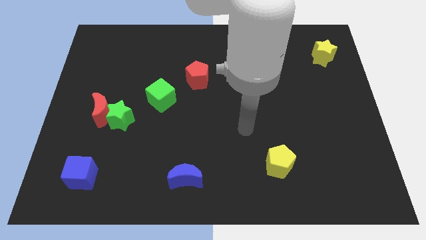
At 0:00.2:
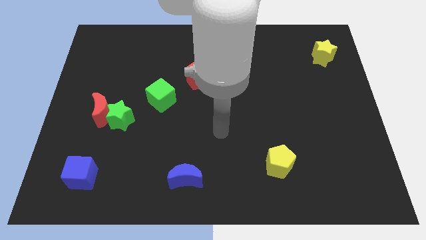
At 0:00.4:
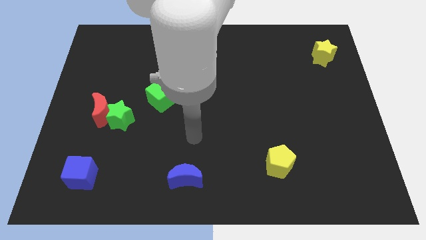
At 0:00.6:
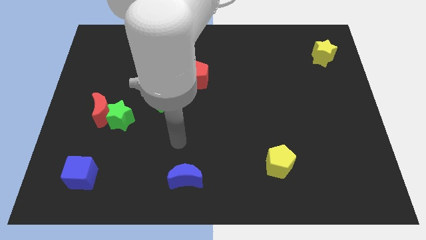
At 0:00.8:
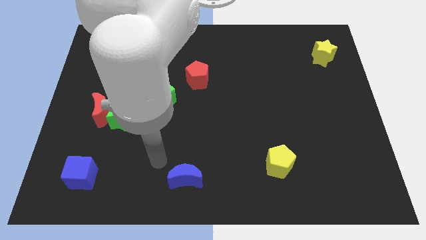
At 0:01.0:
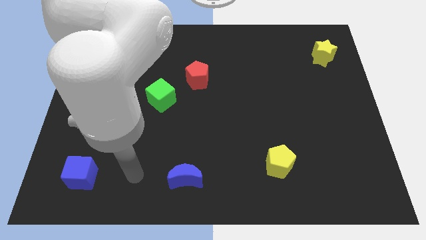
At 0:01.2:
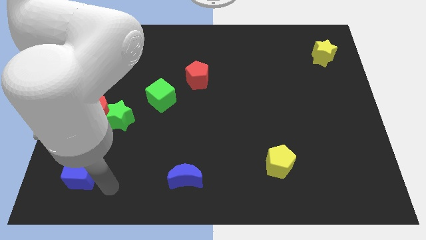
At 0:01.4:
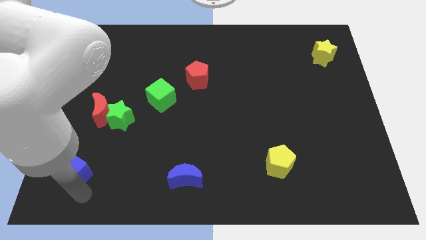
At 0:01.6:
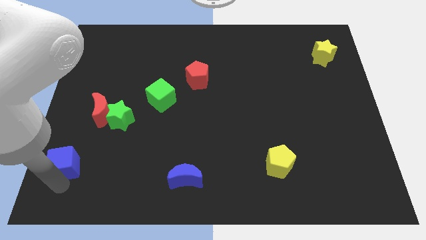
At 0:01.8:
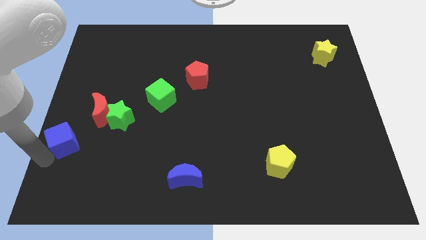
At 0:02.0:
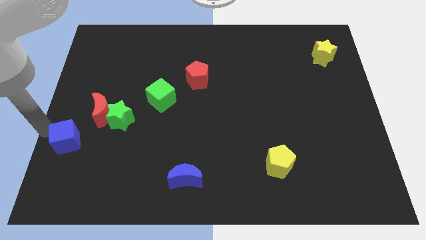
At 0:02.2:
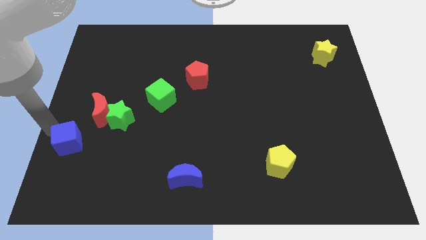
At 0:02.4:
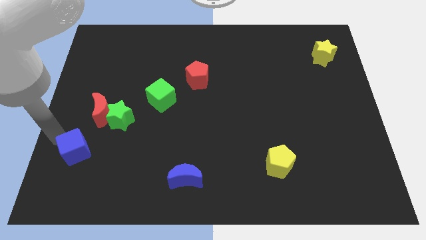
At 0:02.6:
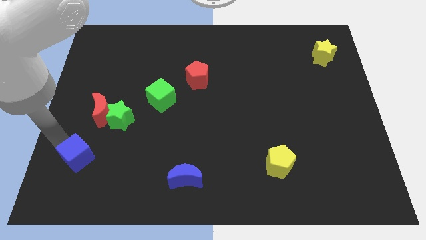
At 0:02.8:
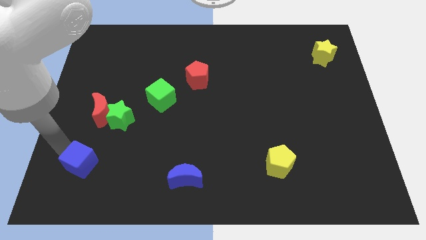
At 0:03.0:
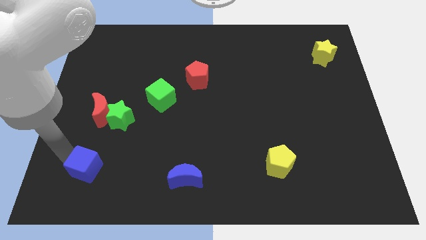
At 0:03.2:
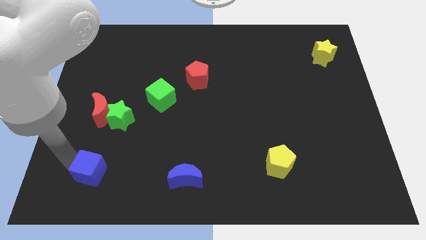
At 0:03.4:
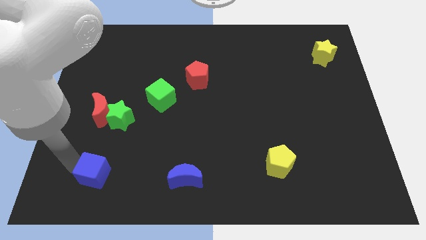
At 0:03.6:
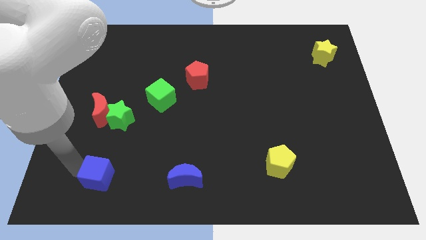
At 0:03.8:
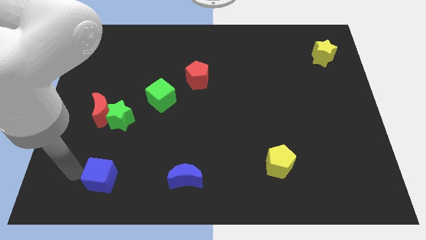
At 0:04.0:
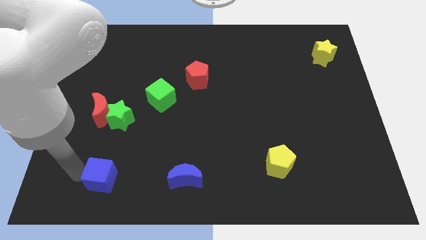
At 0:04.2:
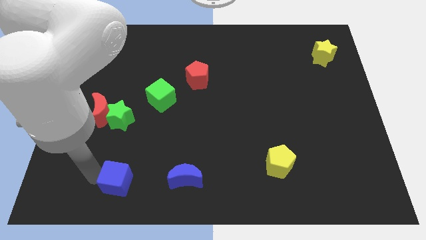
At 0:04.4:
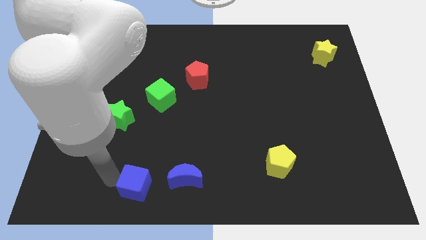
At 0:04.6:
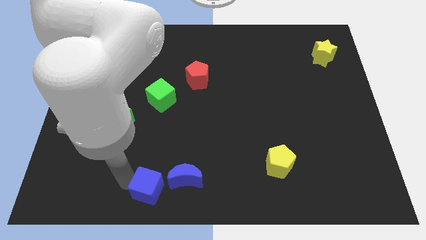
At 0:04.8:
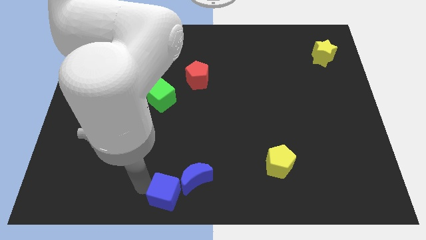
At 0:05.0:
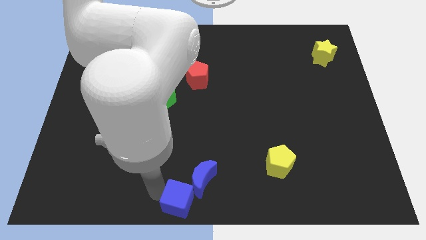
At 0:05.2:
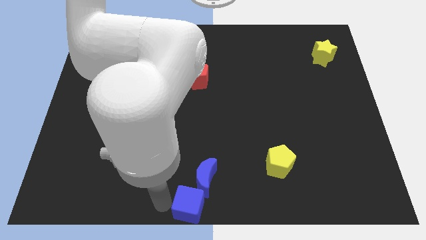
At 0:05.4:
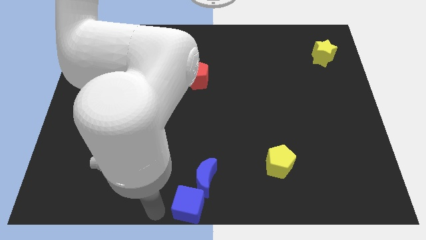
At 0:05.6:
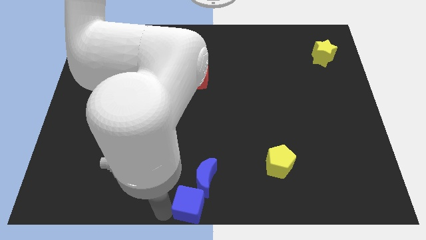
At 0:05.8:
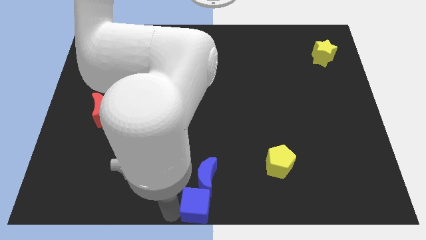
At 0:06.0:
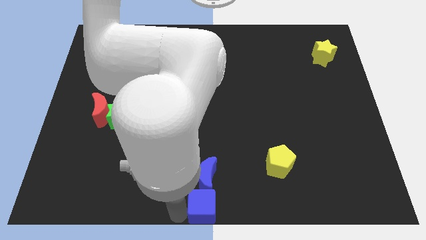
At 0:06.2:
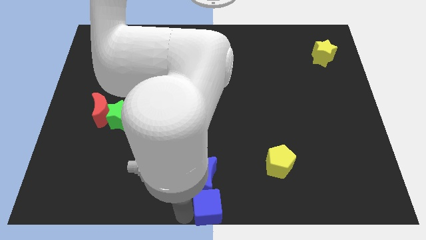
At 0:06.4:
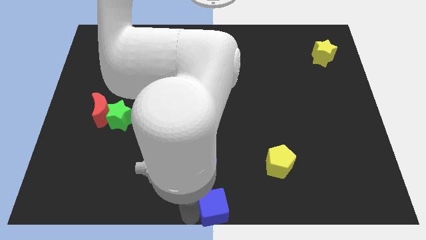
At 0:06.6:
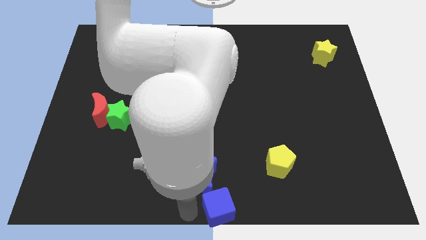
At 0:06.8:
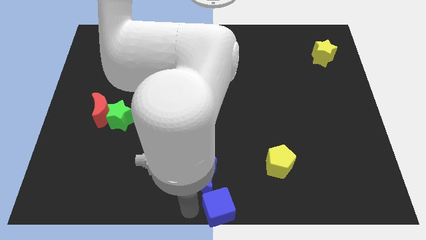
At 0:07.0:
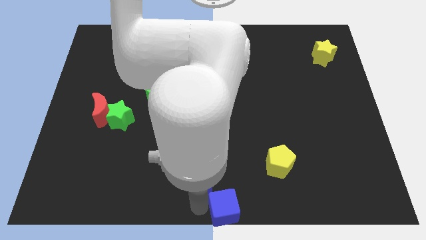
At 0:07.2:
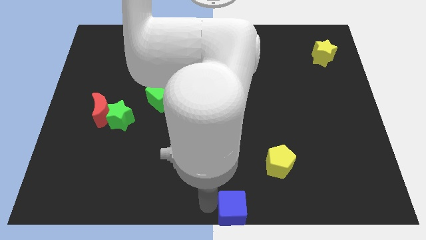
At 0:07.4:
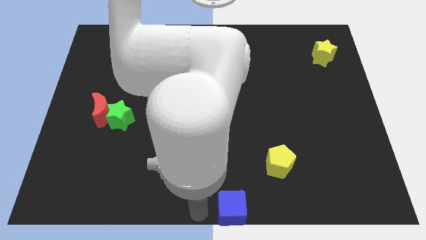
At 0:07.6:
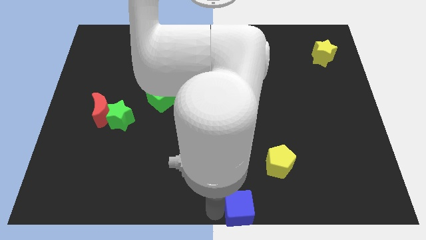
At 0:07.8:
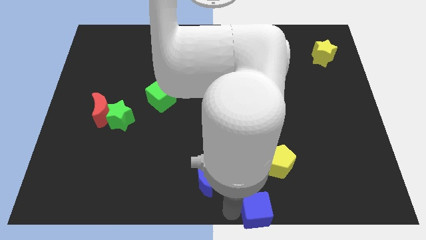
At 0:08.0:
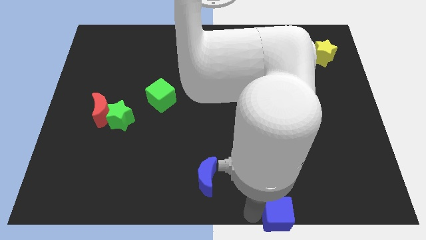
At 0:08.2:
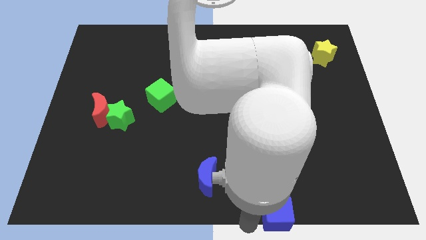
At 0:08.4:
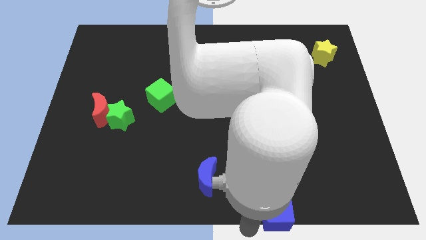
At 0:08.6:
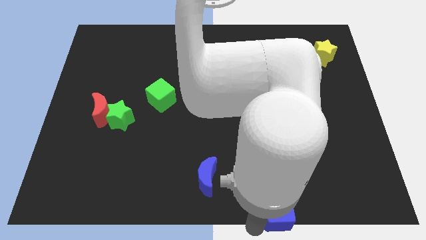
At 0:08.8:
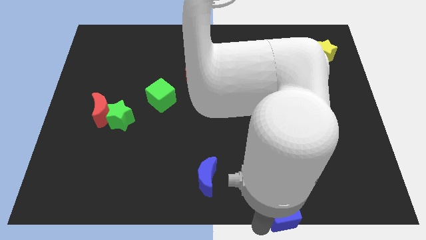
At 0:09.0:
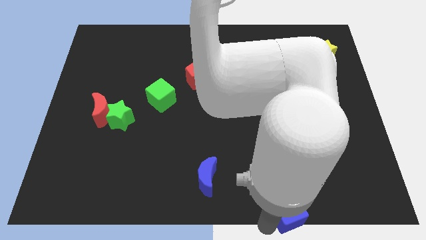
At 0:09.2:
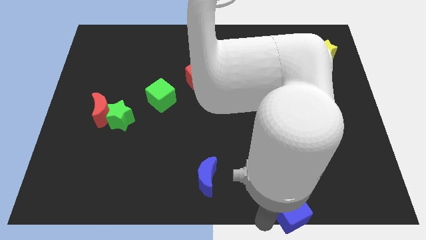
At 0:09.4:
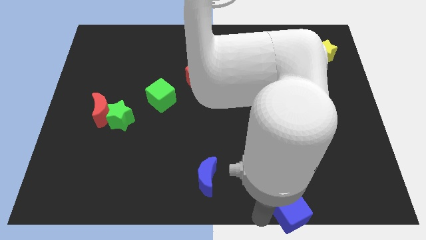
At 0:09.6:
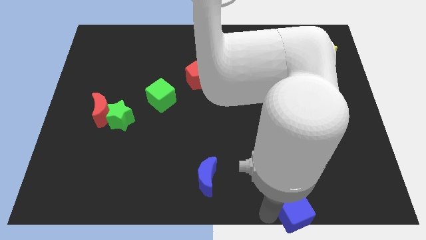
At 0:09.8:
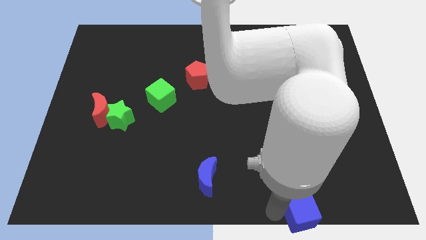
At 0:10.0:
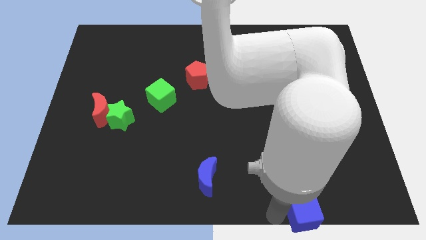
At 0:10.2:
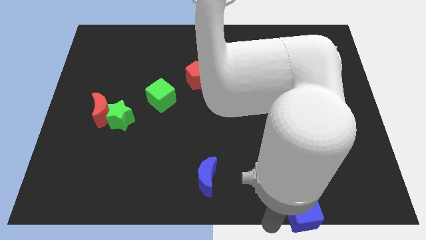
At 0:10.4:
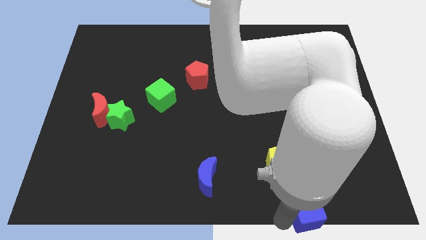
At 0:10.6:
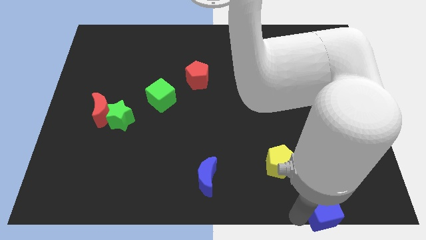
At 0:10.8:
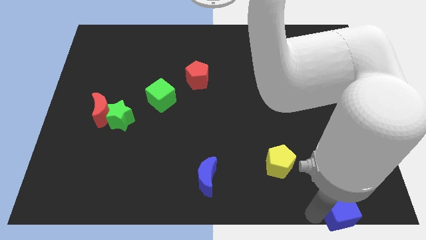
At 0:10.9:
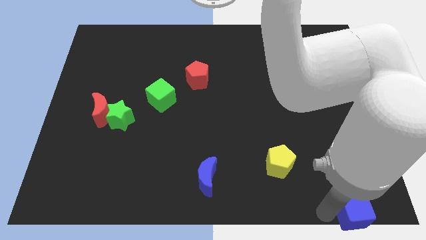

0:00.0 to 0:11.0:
push the blue cube to the bottom right

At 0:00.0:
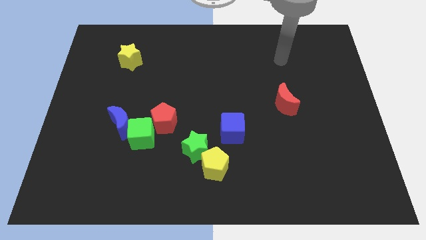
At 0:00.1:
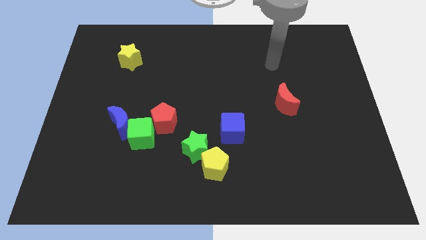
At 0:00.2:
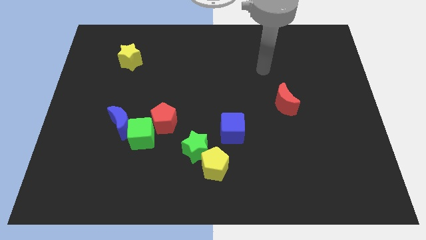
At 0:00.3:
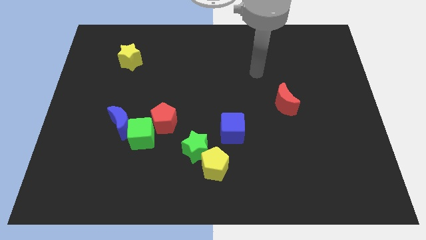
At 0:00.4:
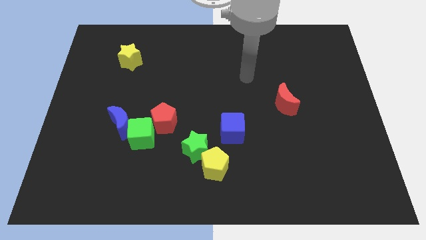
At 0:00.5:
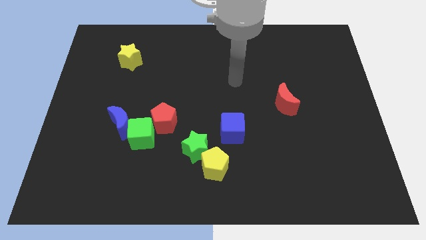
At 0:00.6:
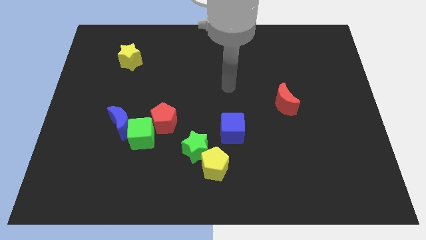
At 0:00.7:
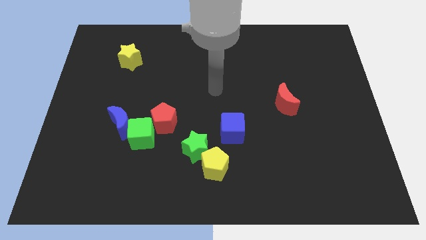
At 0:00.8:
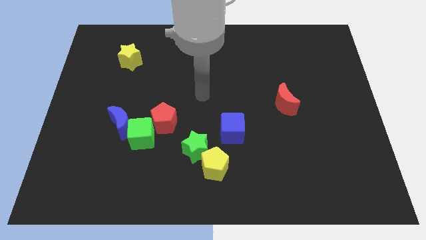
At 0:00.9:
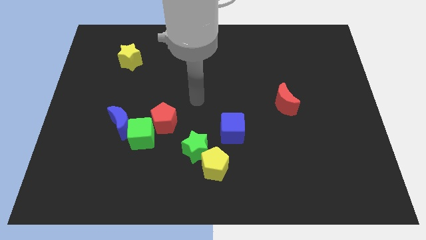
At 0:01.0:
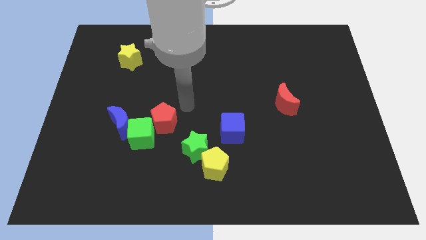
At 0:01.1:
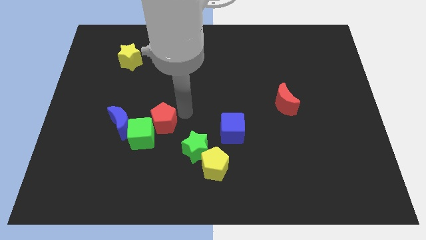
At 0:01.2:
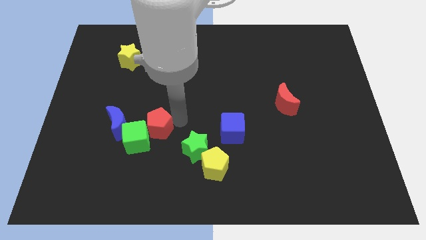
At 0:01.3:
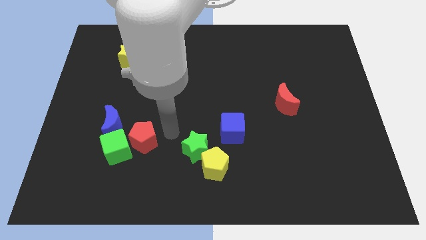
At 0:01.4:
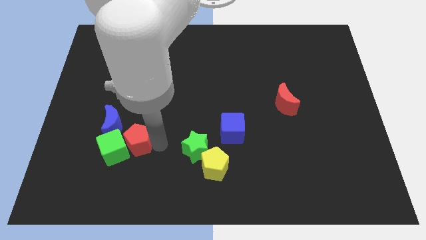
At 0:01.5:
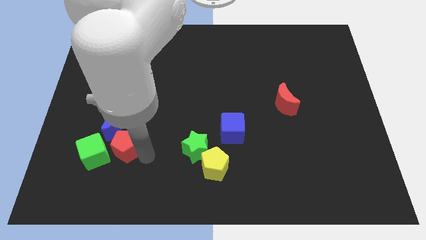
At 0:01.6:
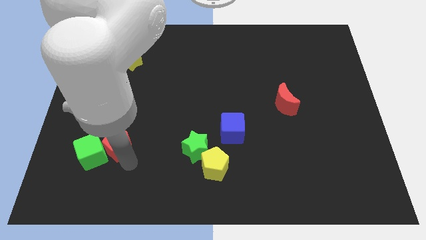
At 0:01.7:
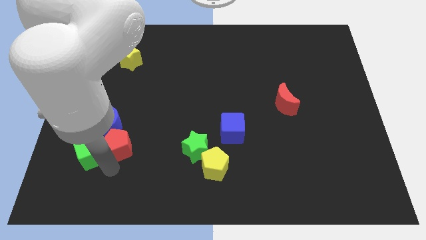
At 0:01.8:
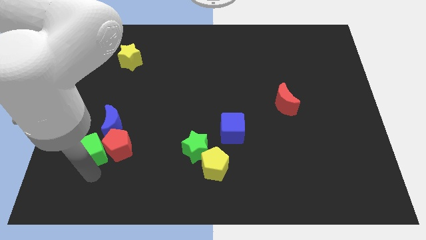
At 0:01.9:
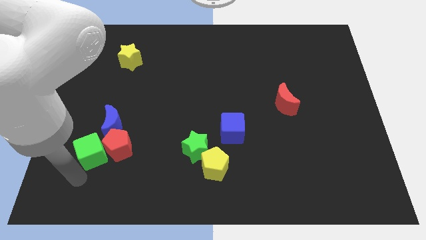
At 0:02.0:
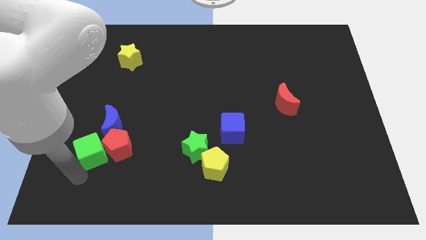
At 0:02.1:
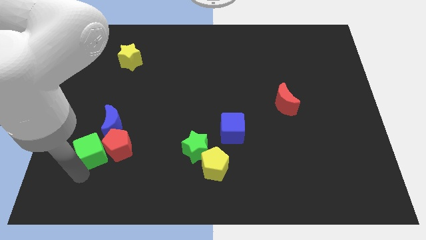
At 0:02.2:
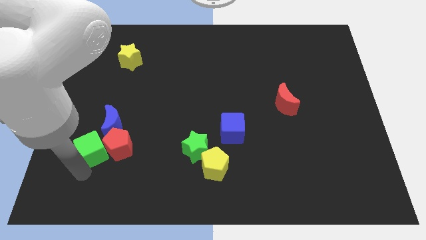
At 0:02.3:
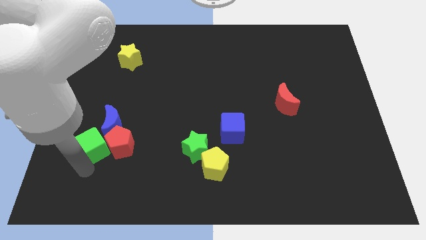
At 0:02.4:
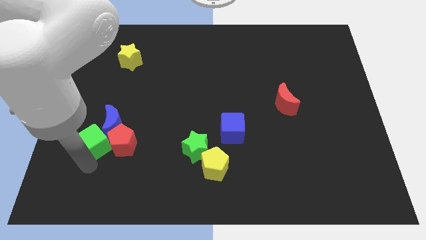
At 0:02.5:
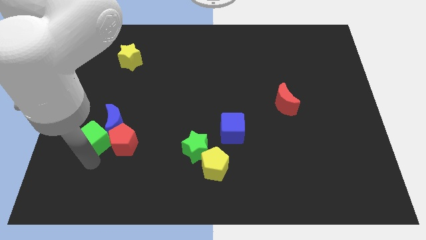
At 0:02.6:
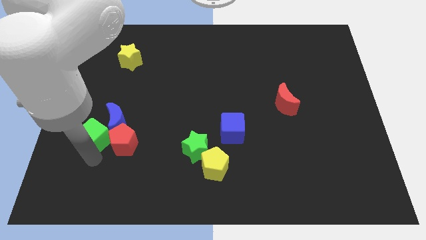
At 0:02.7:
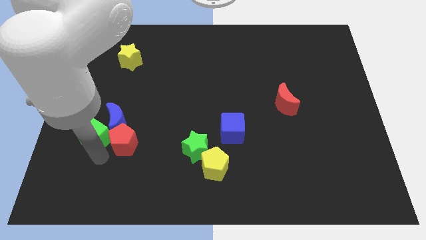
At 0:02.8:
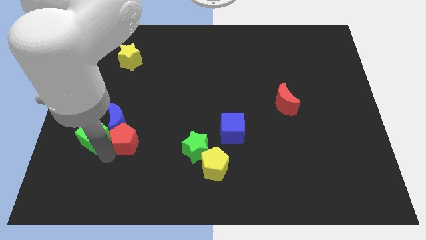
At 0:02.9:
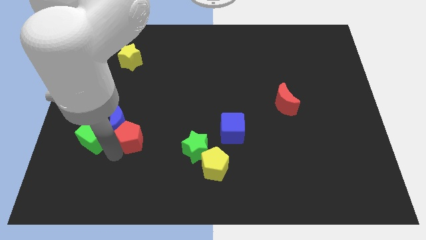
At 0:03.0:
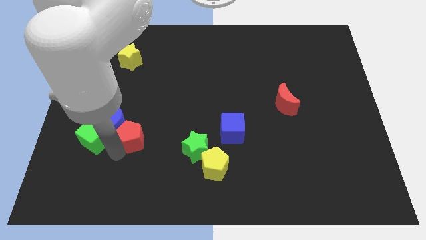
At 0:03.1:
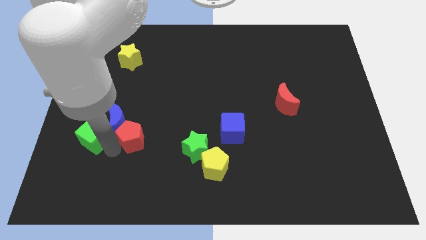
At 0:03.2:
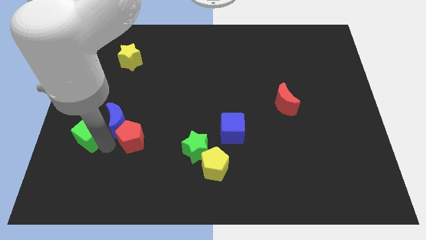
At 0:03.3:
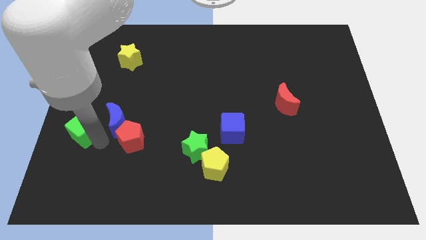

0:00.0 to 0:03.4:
slide the green cube to the left side of the board
